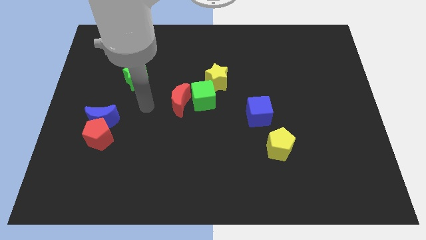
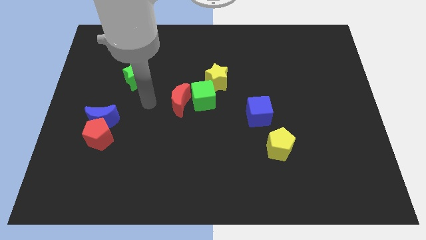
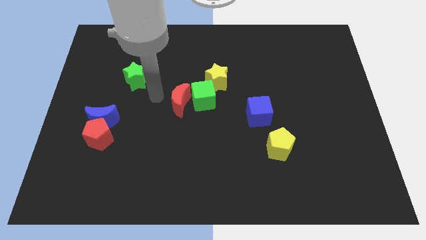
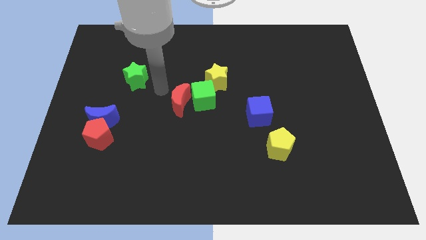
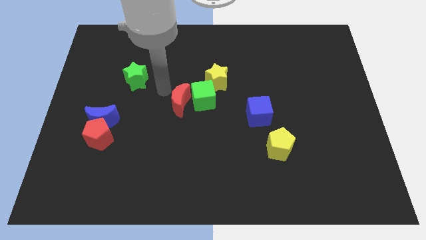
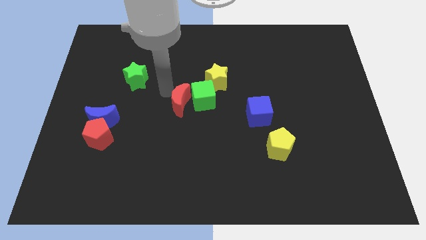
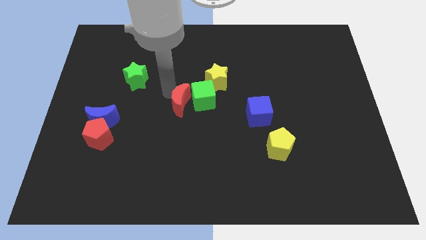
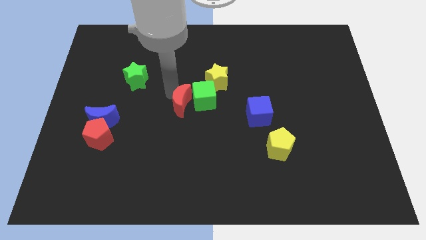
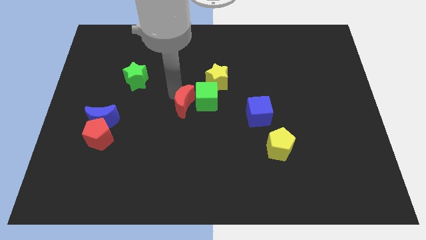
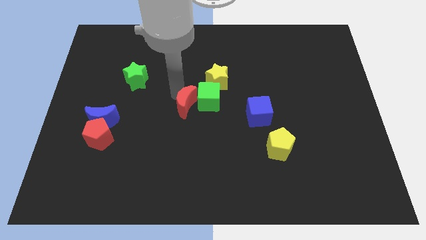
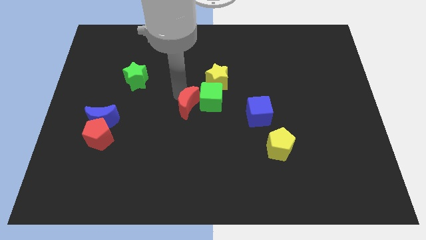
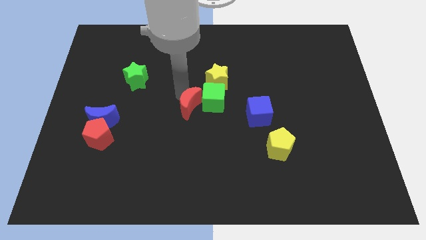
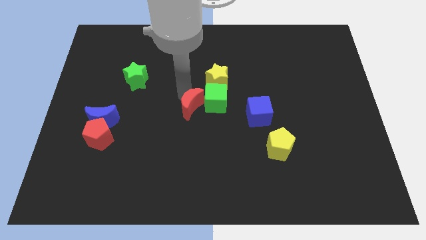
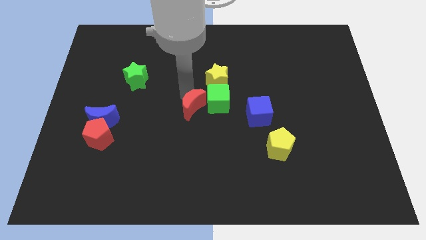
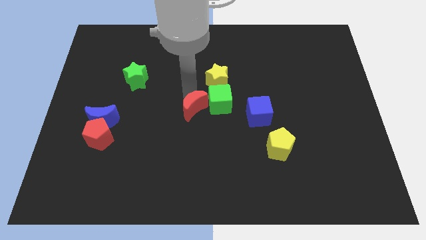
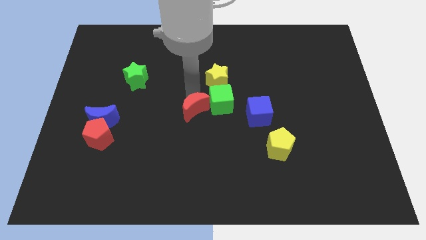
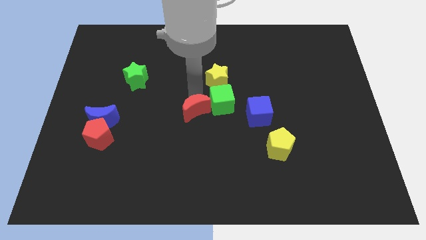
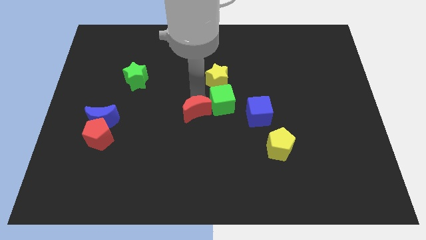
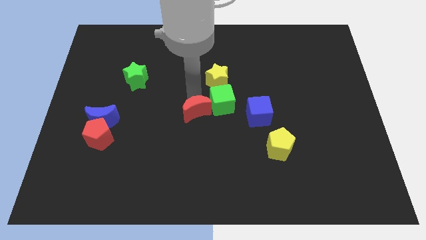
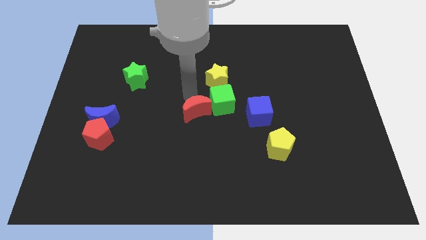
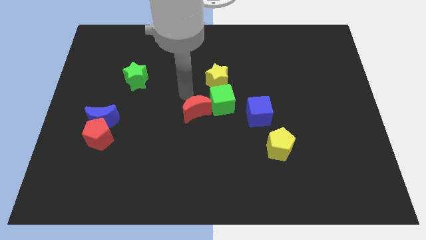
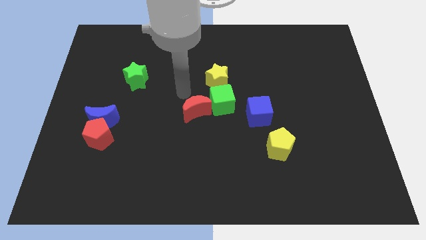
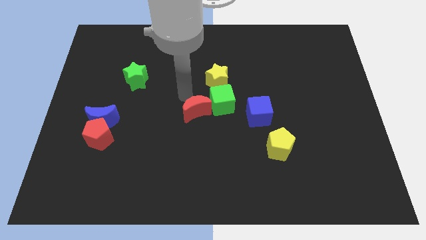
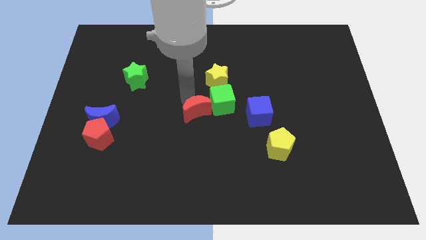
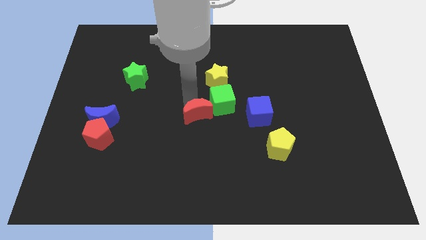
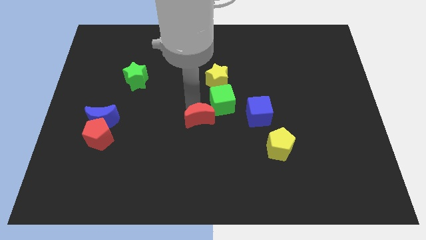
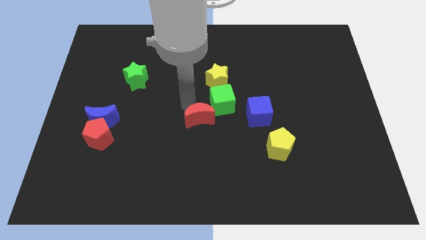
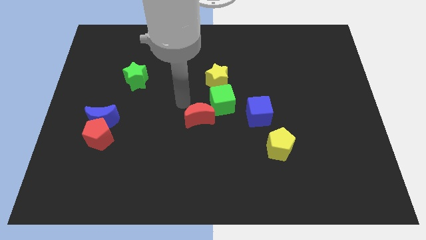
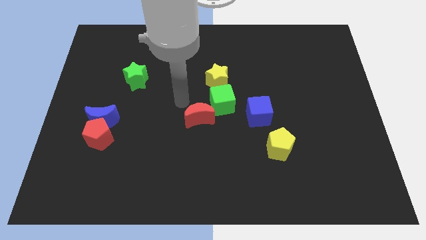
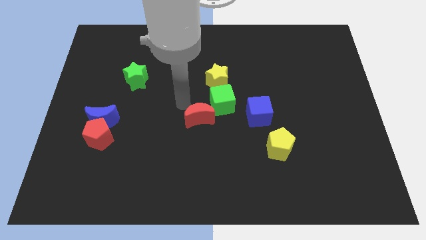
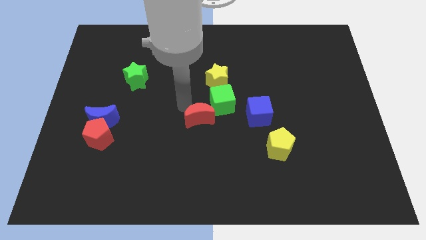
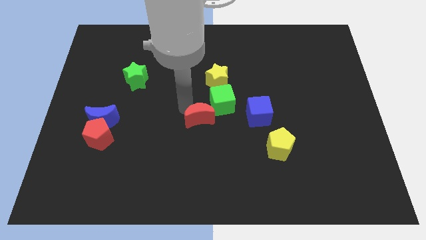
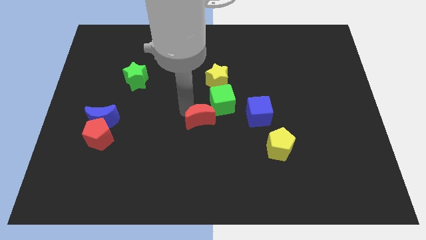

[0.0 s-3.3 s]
push the red moon downwards and right diagonally slightly

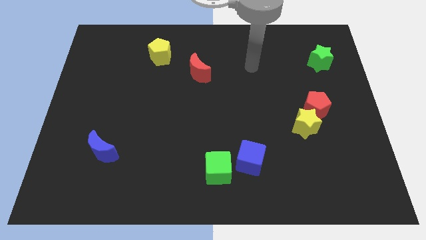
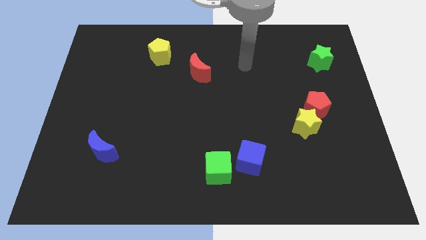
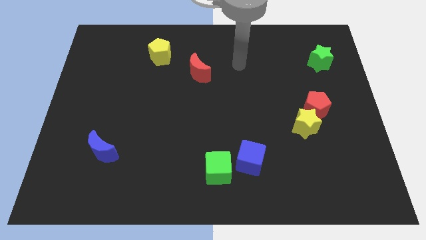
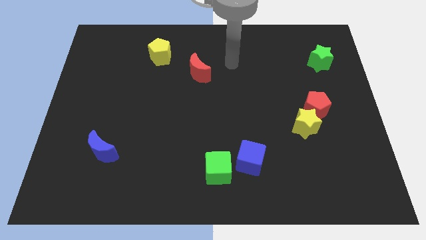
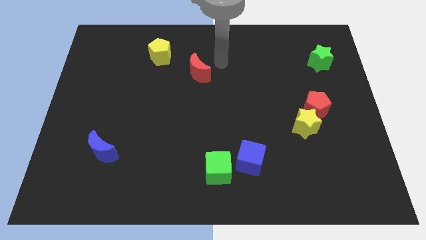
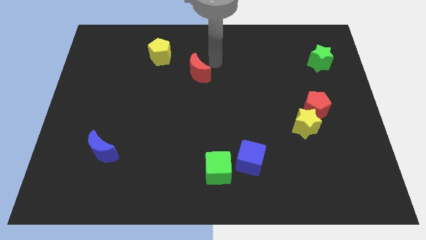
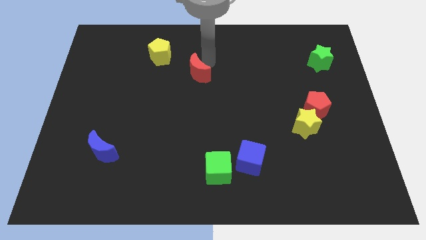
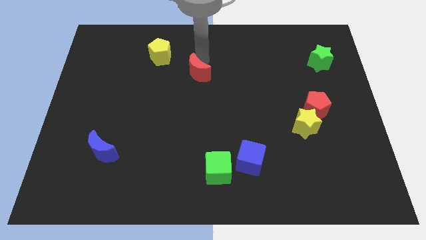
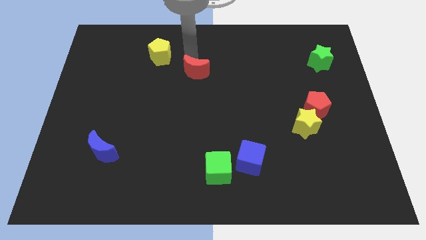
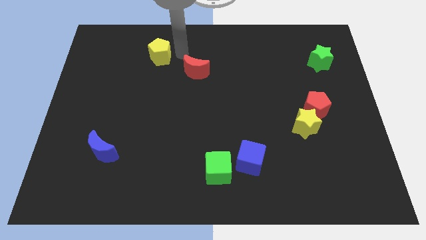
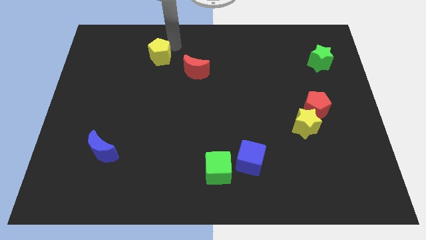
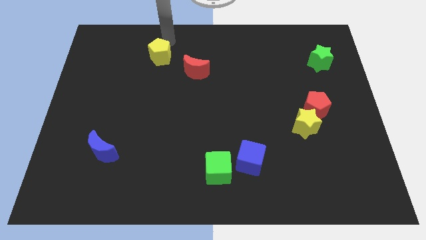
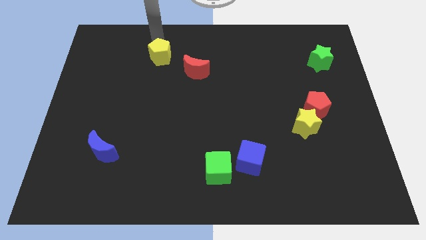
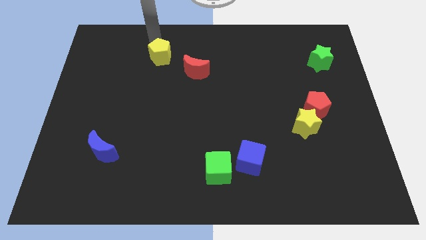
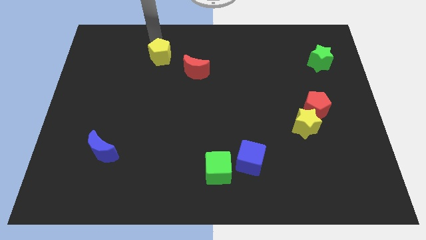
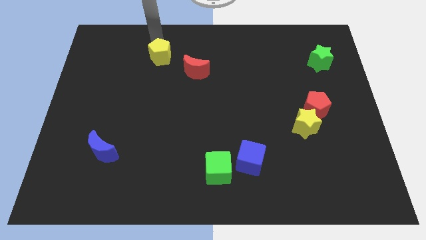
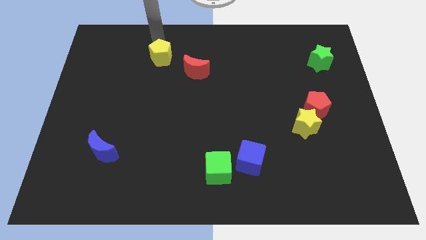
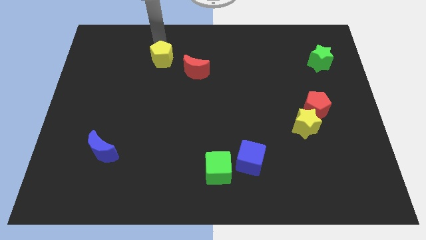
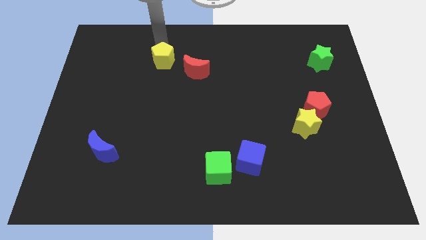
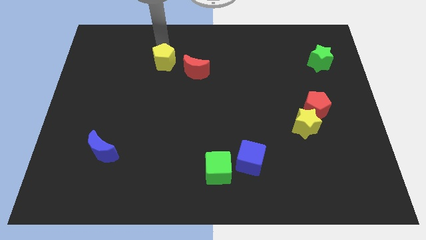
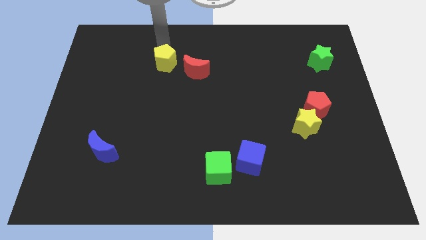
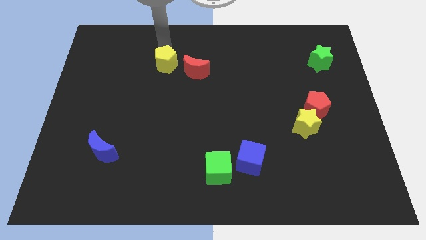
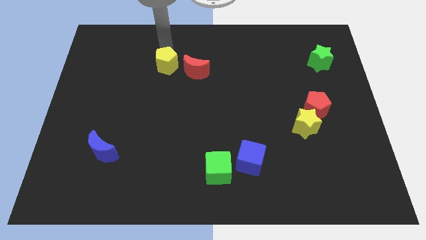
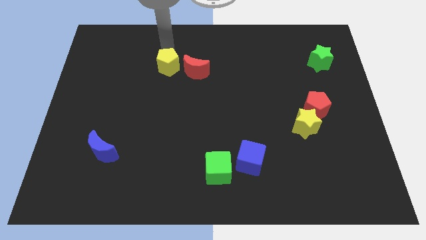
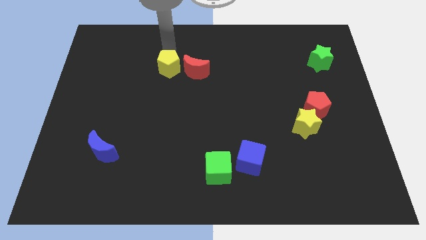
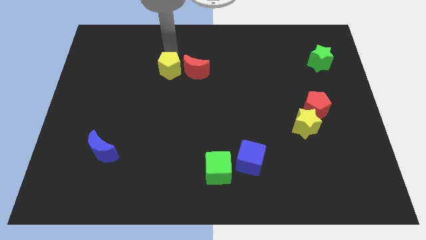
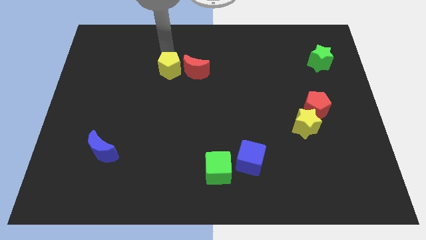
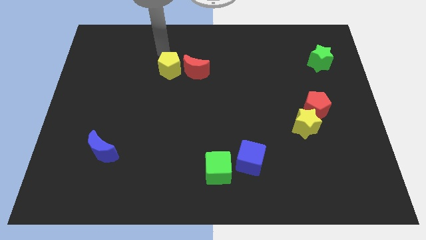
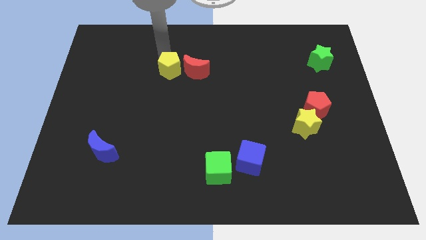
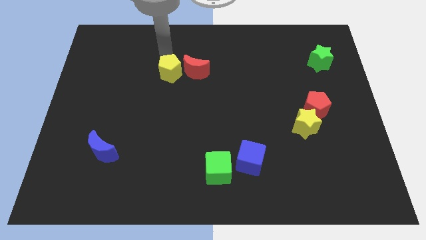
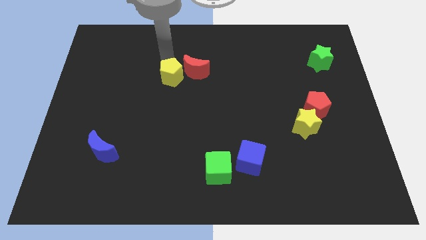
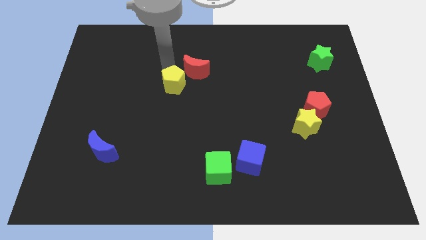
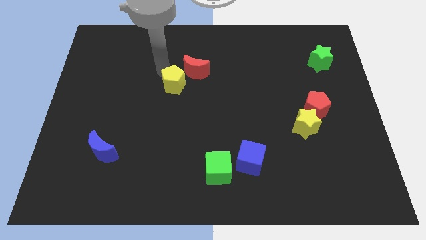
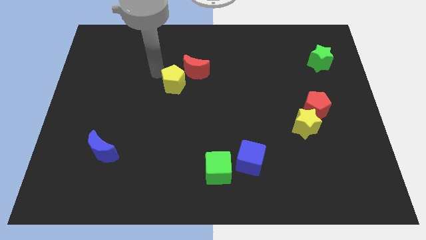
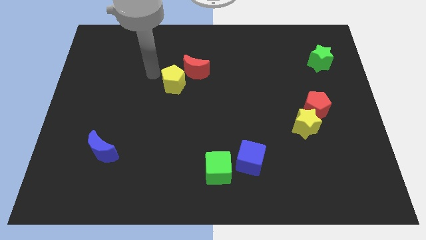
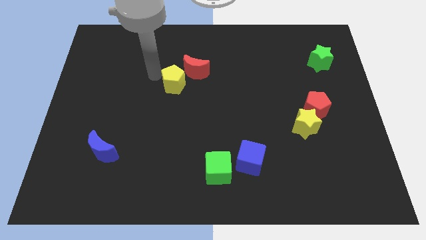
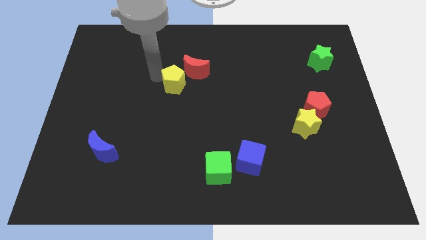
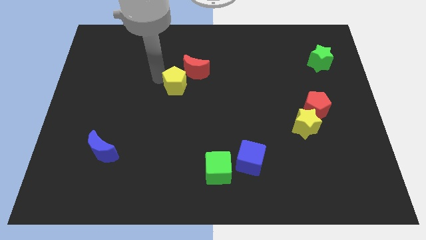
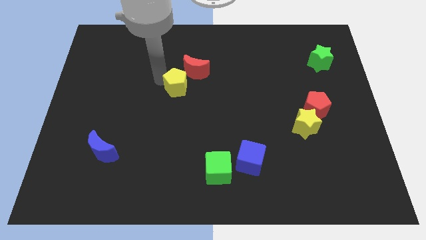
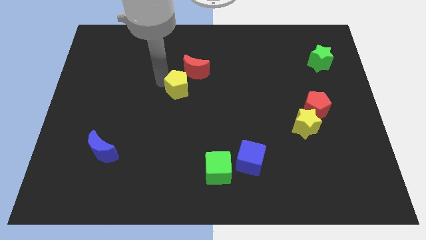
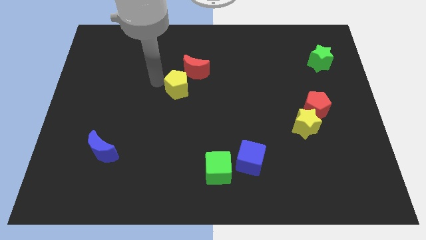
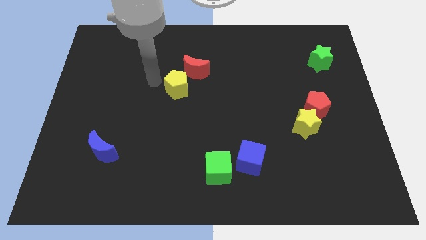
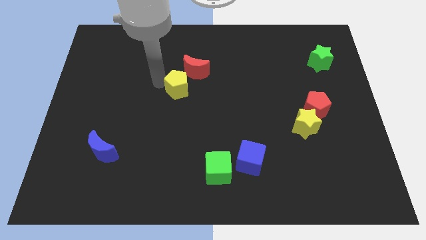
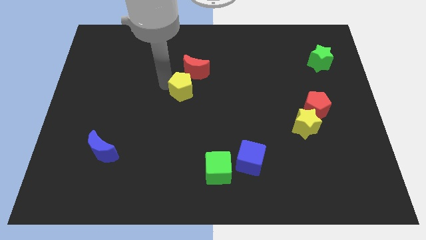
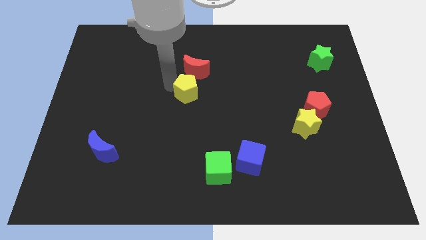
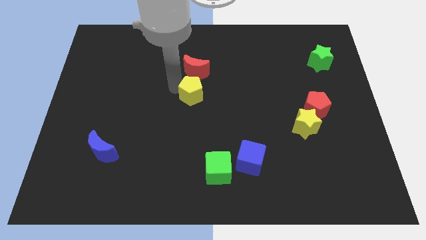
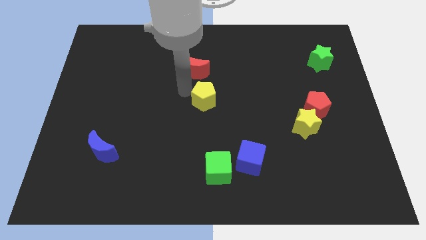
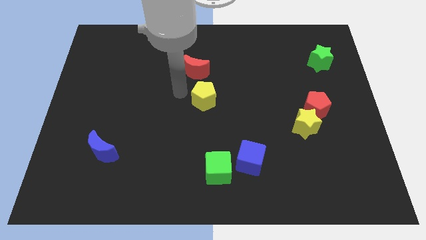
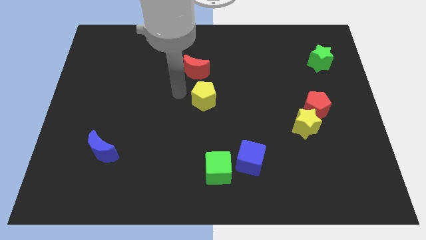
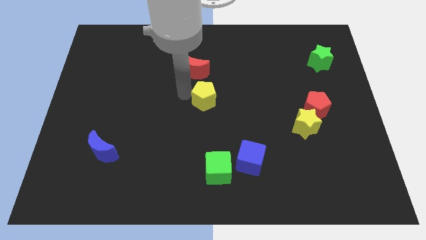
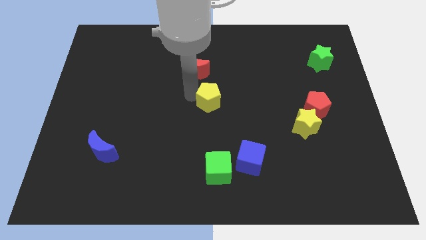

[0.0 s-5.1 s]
move the yellow pentagon diagonally downwards and right
